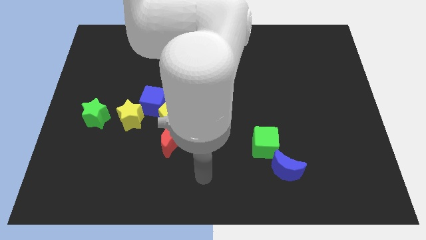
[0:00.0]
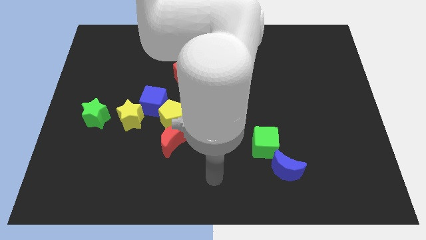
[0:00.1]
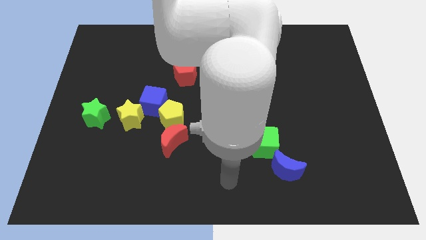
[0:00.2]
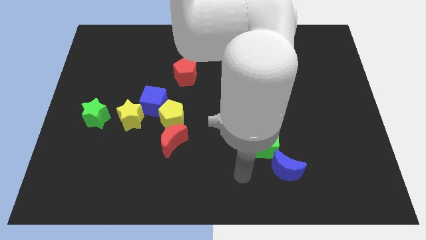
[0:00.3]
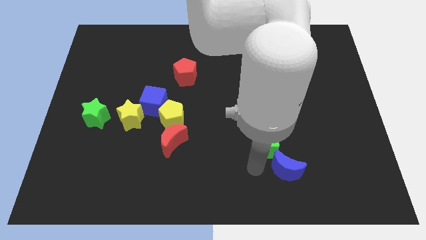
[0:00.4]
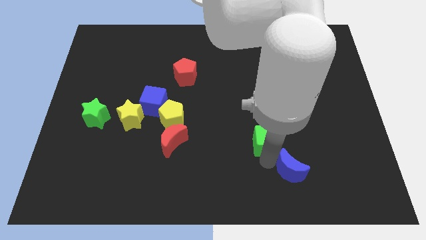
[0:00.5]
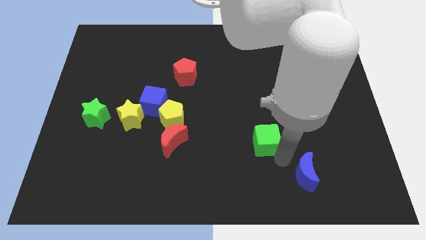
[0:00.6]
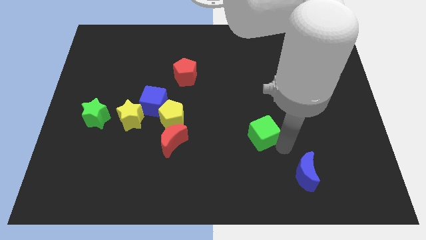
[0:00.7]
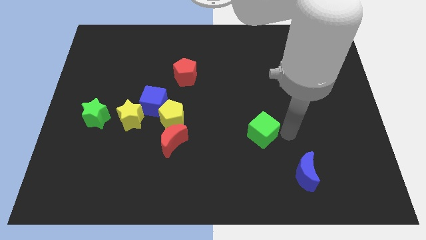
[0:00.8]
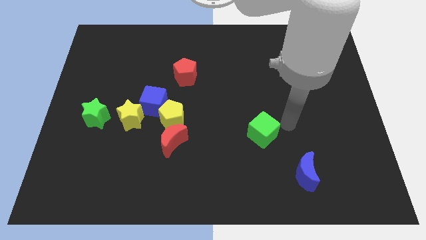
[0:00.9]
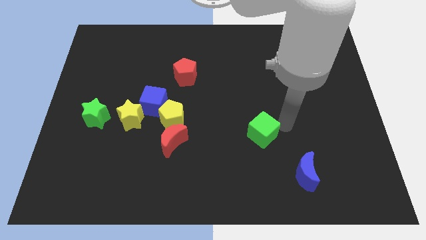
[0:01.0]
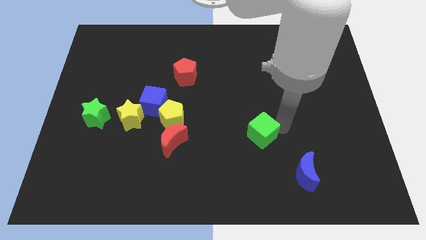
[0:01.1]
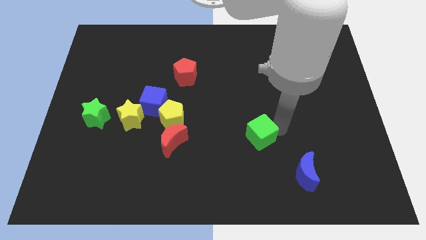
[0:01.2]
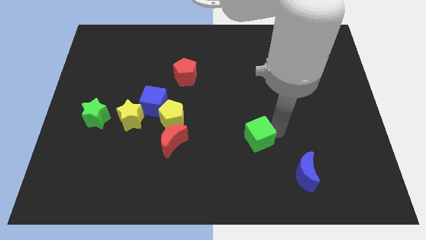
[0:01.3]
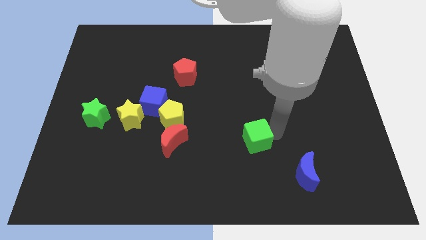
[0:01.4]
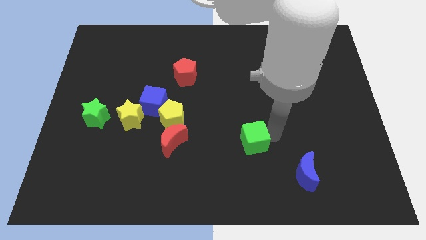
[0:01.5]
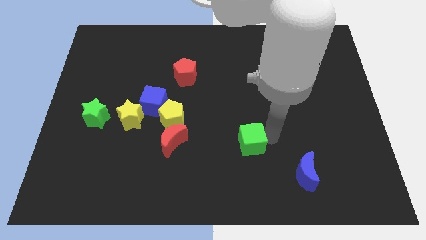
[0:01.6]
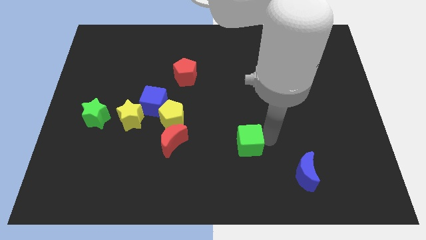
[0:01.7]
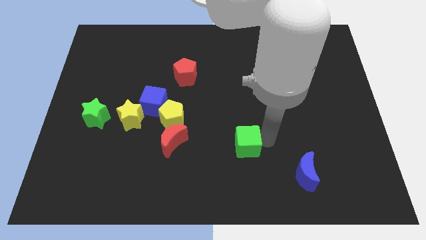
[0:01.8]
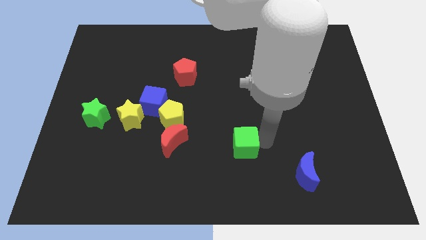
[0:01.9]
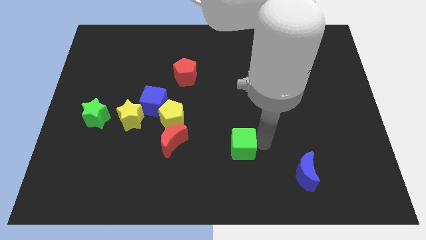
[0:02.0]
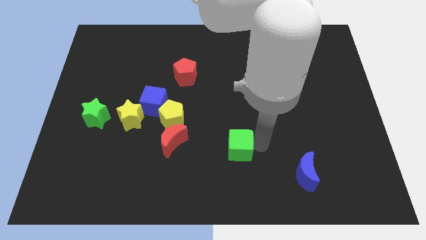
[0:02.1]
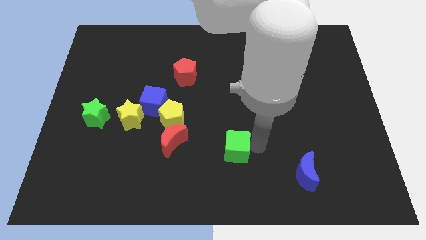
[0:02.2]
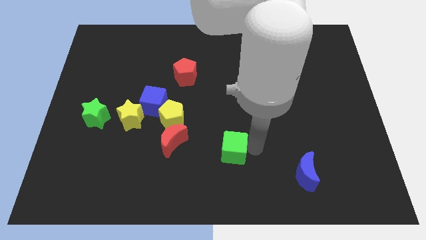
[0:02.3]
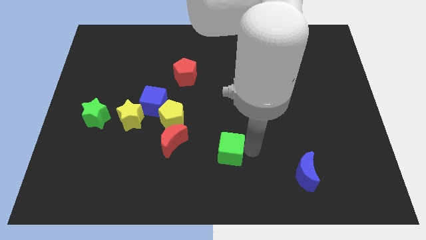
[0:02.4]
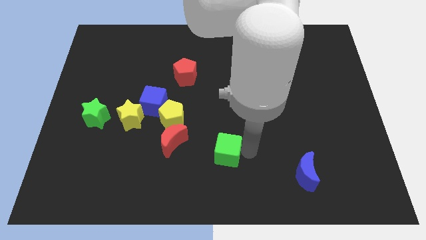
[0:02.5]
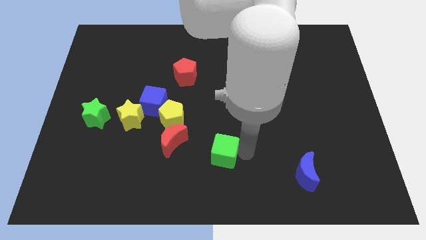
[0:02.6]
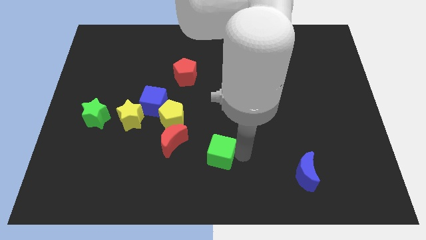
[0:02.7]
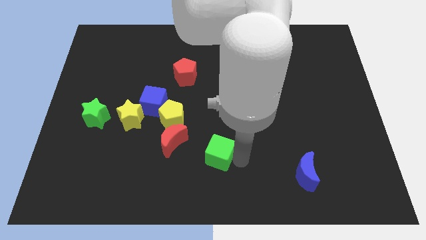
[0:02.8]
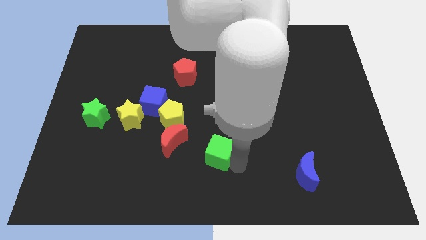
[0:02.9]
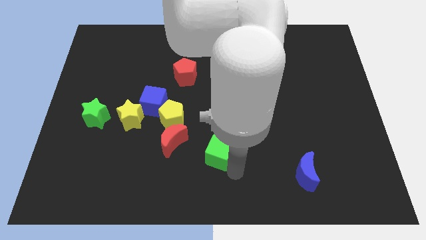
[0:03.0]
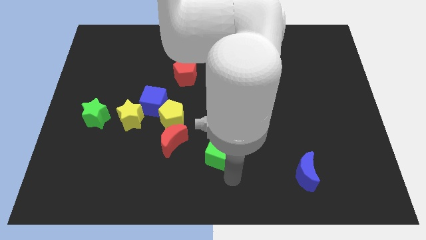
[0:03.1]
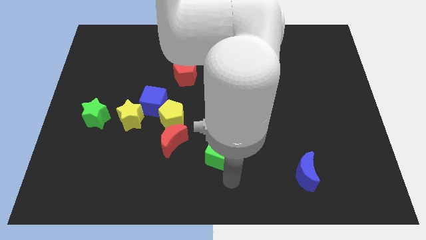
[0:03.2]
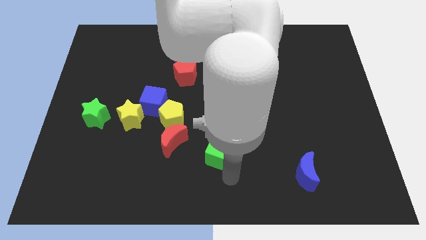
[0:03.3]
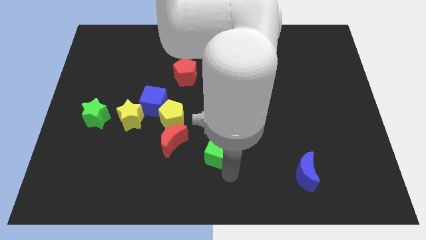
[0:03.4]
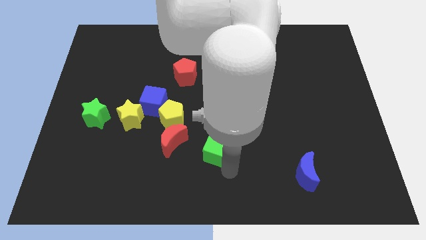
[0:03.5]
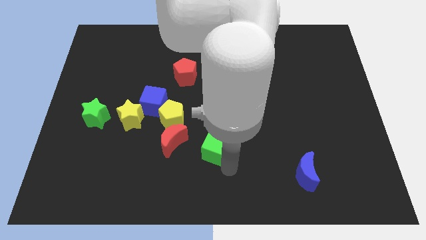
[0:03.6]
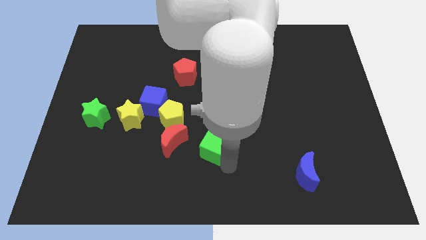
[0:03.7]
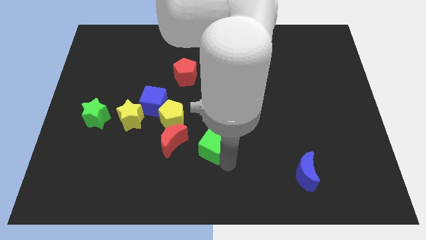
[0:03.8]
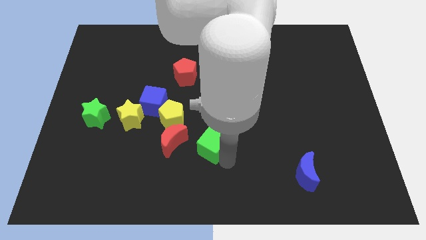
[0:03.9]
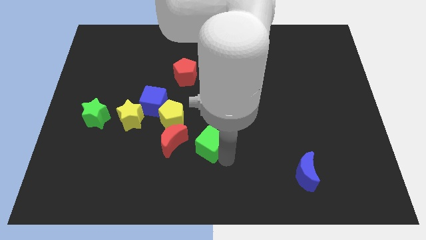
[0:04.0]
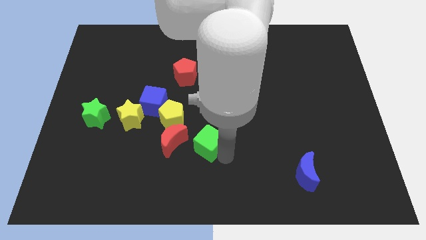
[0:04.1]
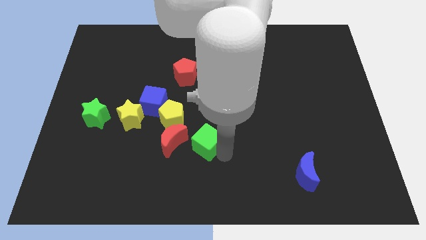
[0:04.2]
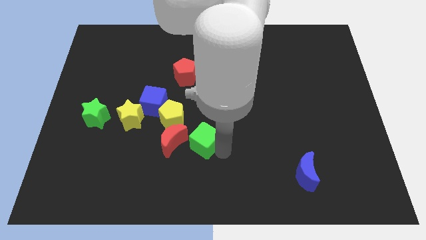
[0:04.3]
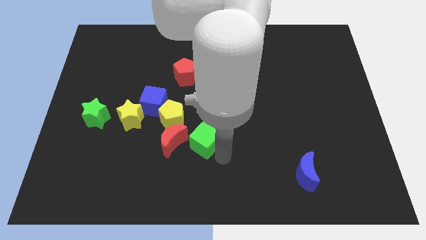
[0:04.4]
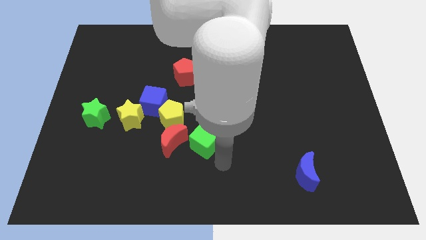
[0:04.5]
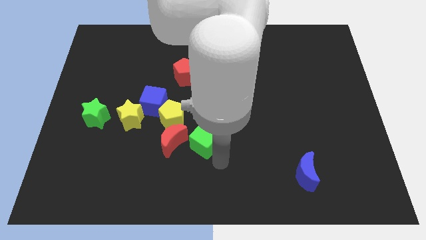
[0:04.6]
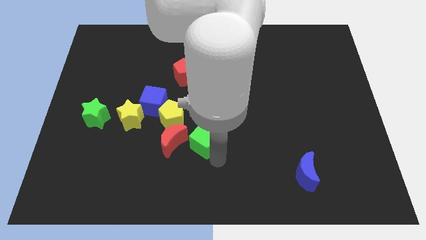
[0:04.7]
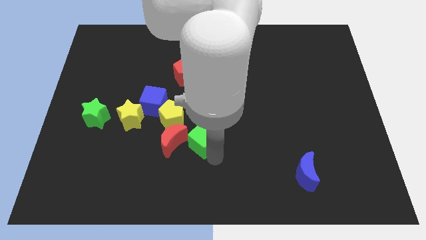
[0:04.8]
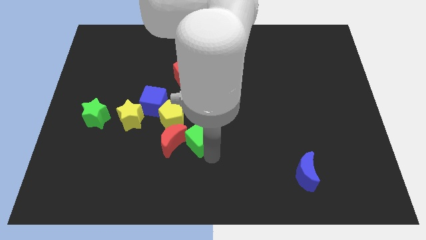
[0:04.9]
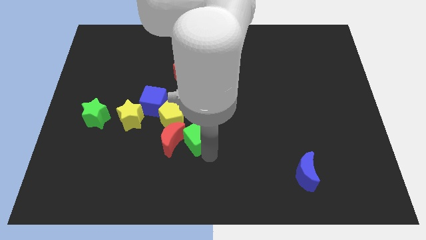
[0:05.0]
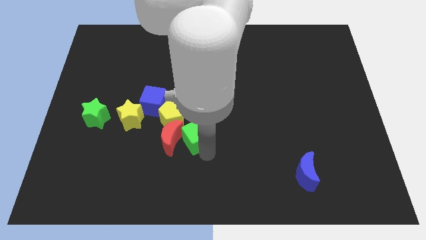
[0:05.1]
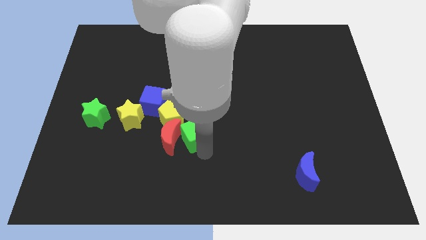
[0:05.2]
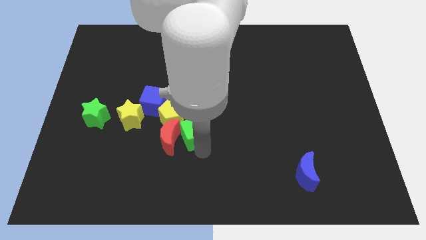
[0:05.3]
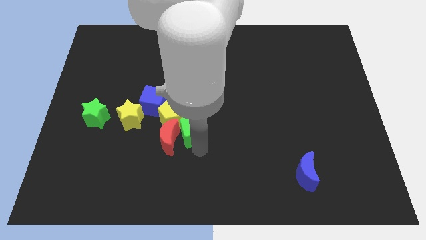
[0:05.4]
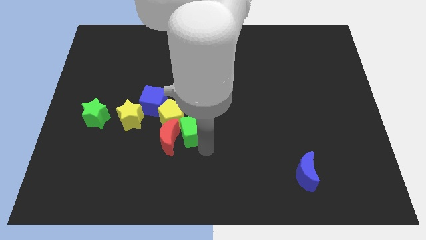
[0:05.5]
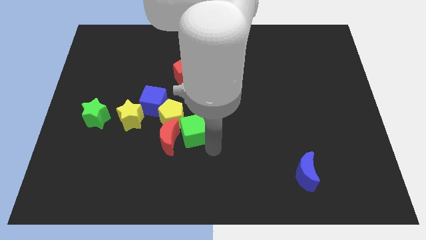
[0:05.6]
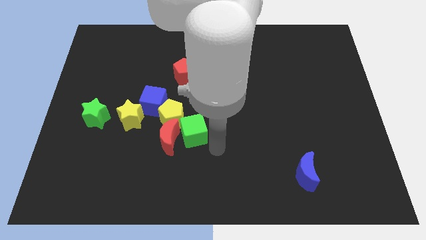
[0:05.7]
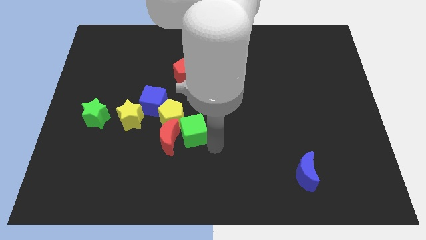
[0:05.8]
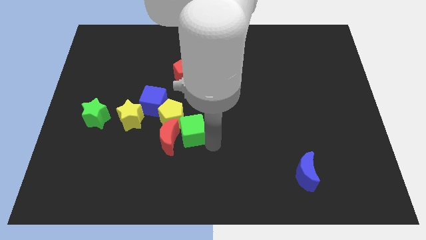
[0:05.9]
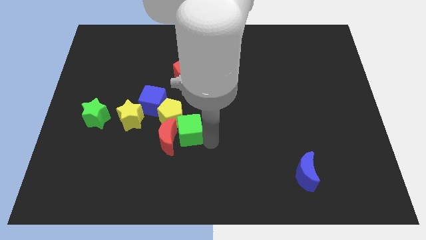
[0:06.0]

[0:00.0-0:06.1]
put the green cube close to the yellow pentagon

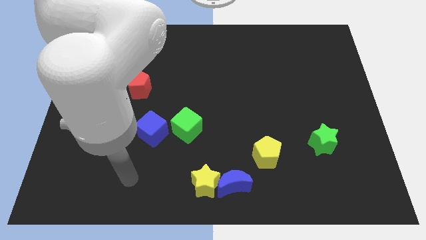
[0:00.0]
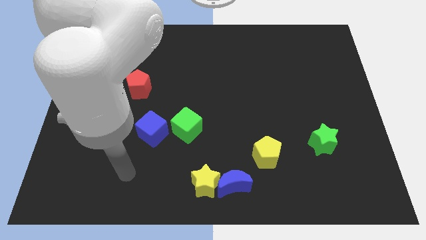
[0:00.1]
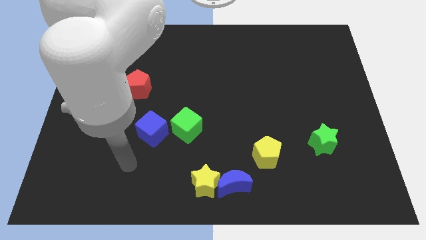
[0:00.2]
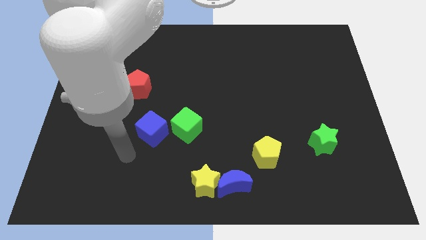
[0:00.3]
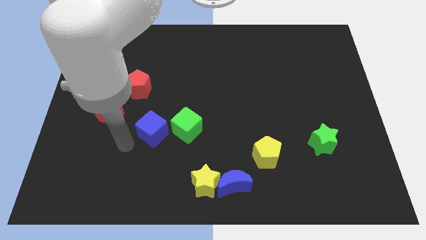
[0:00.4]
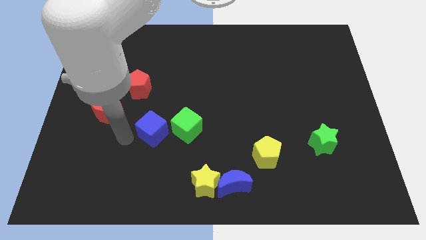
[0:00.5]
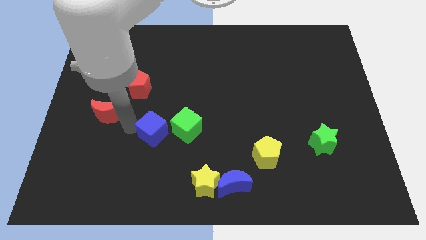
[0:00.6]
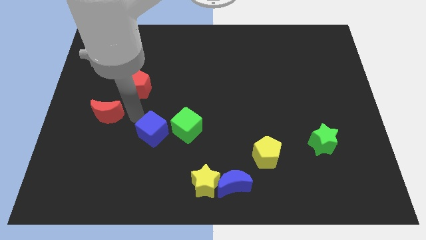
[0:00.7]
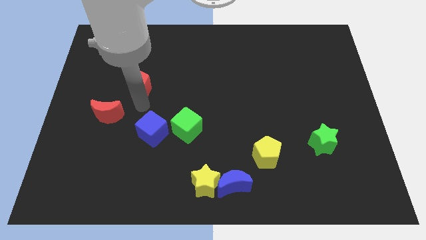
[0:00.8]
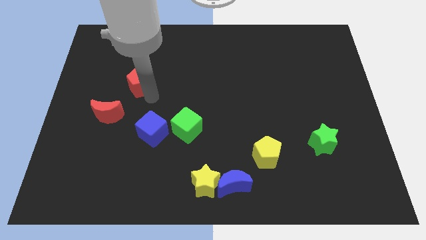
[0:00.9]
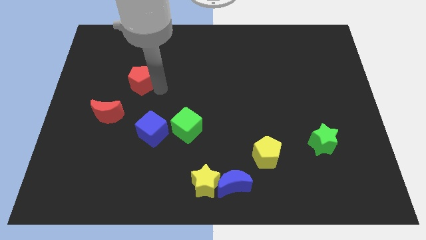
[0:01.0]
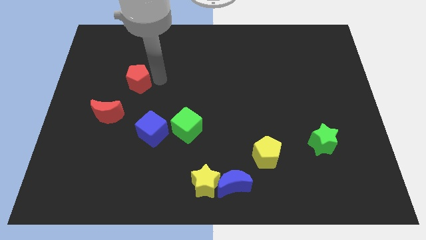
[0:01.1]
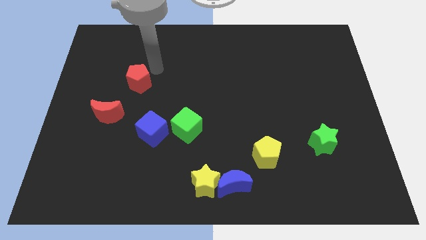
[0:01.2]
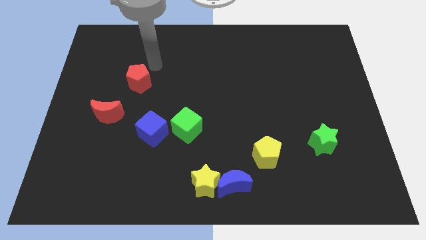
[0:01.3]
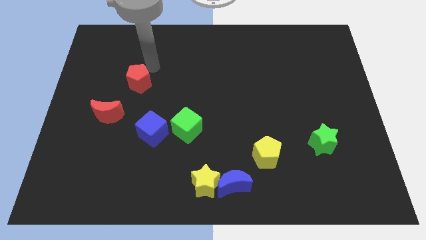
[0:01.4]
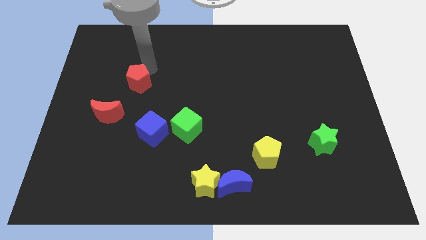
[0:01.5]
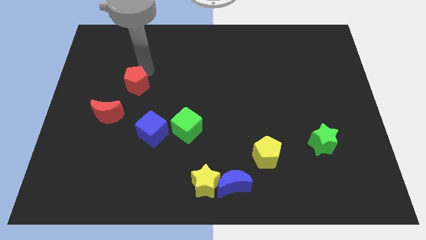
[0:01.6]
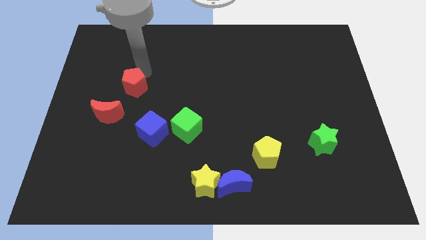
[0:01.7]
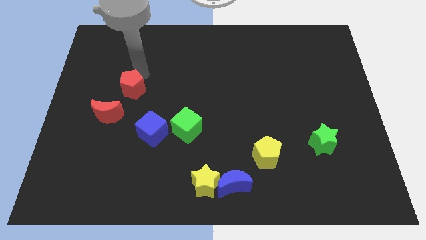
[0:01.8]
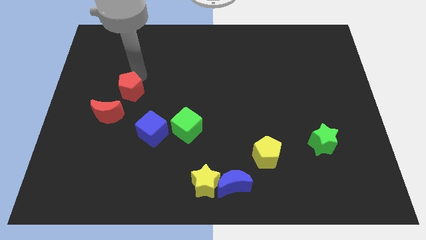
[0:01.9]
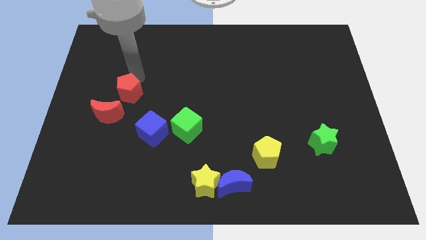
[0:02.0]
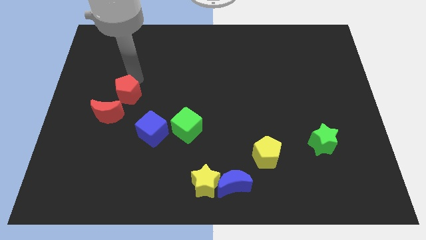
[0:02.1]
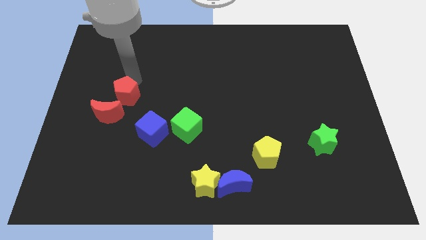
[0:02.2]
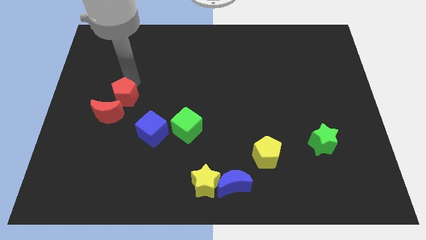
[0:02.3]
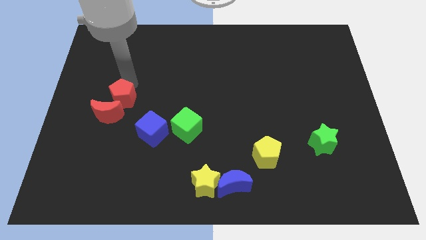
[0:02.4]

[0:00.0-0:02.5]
slide the red pentagon next to the red moon
